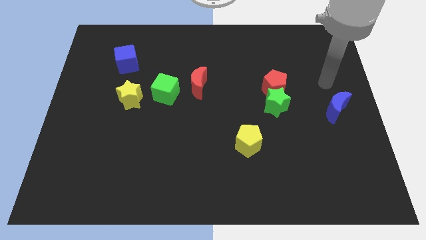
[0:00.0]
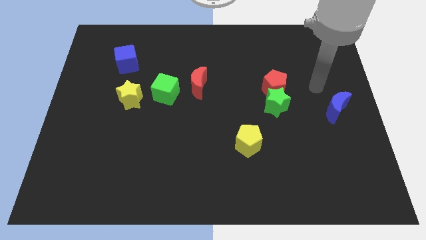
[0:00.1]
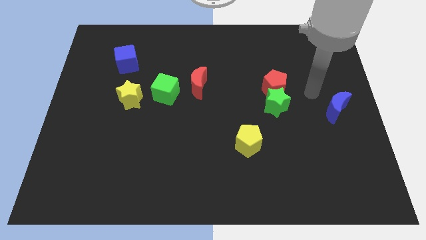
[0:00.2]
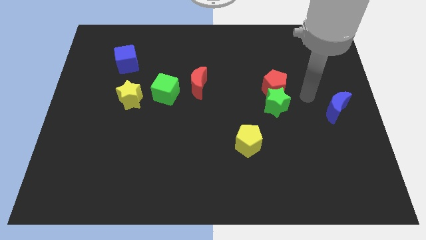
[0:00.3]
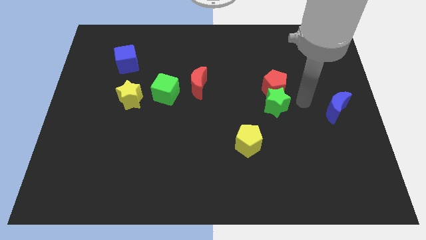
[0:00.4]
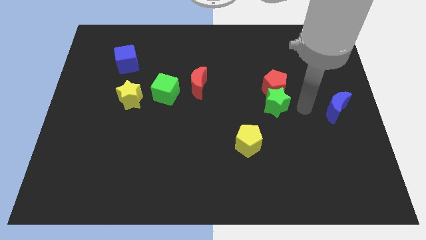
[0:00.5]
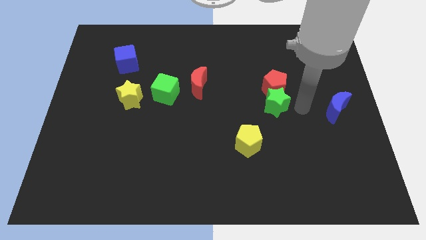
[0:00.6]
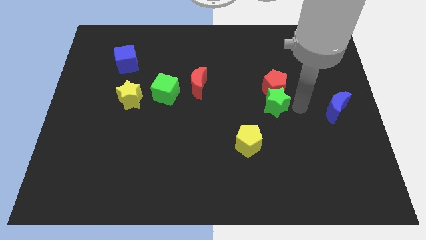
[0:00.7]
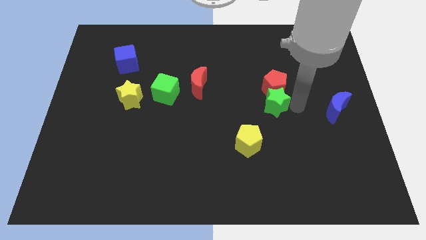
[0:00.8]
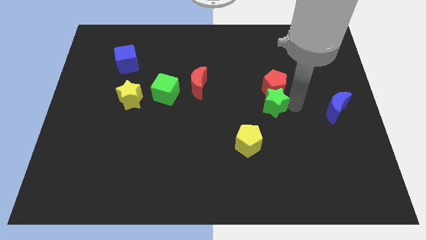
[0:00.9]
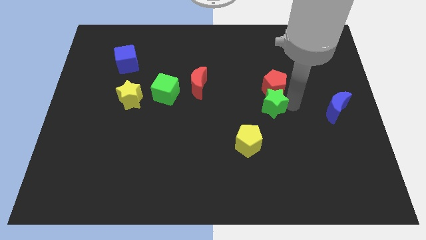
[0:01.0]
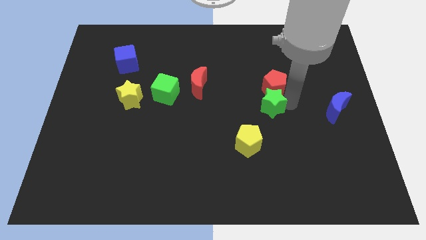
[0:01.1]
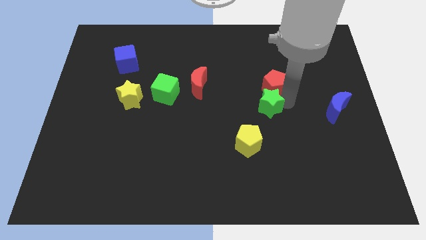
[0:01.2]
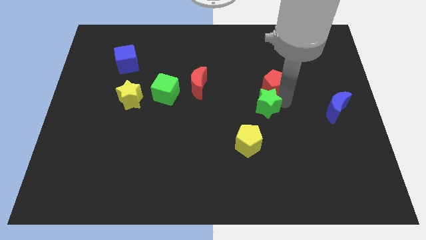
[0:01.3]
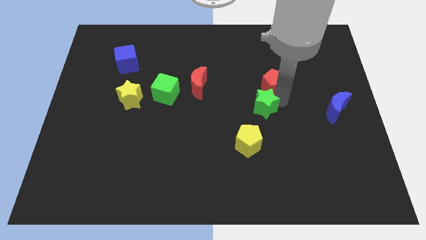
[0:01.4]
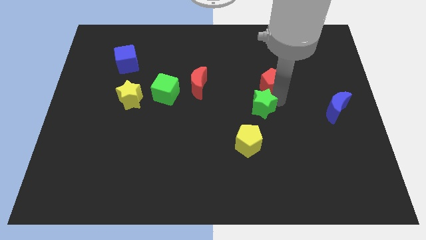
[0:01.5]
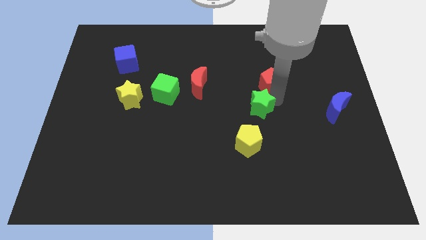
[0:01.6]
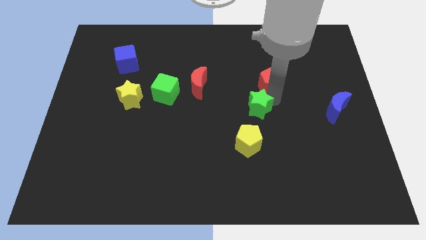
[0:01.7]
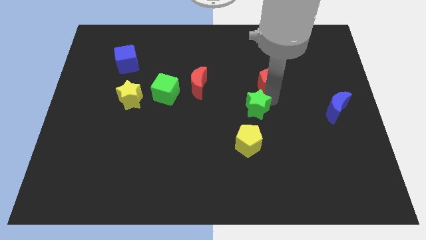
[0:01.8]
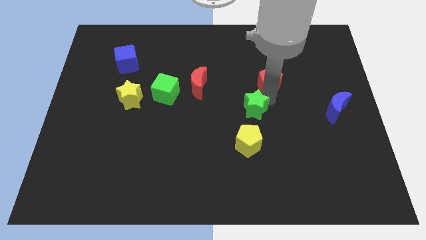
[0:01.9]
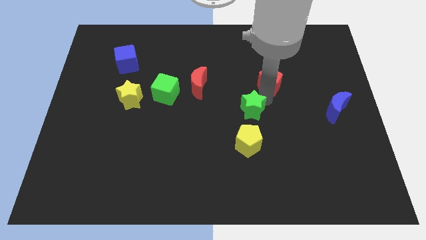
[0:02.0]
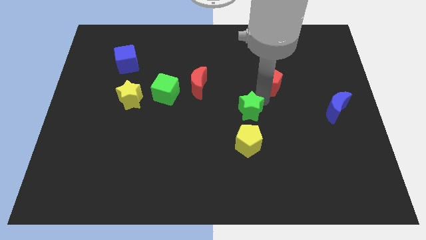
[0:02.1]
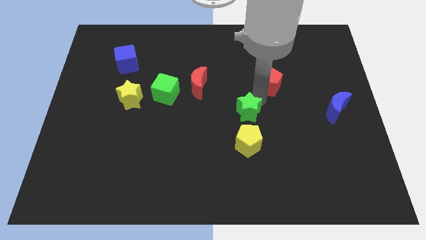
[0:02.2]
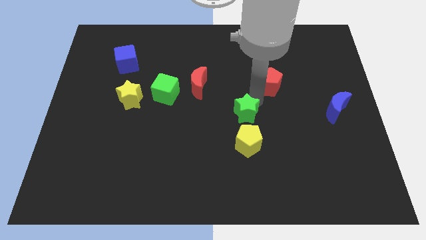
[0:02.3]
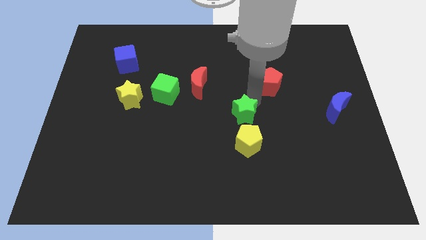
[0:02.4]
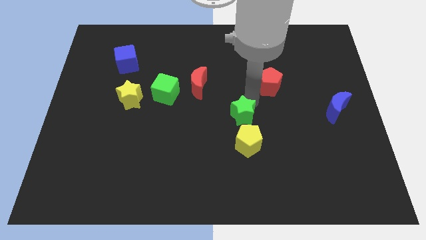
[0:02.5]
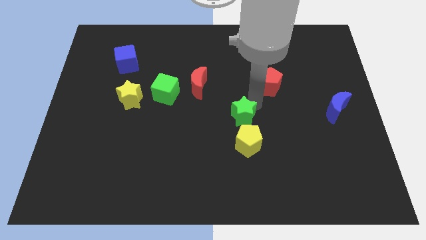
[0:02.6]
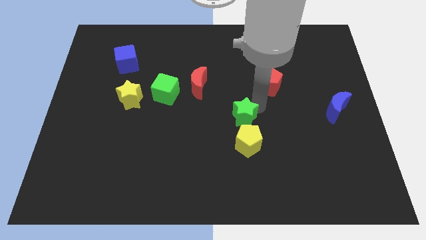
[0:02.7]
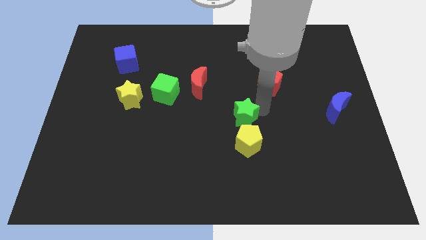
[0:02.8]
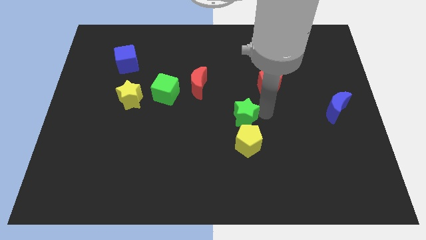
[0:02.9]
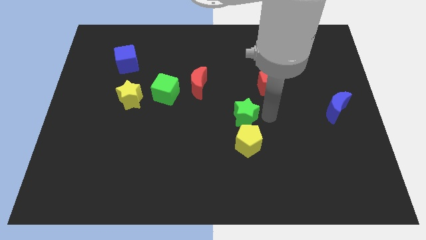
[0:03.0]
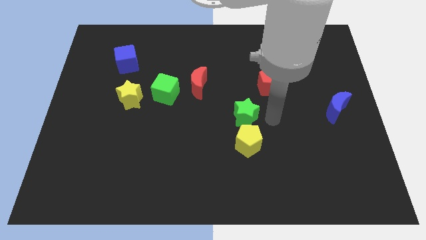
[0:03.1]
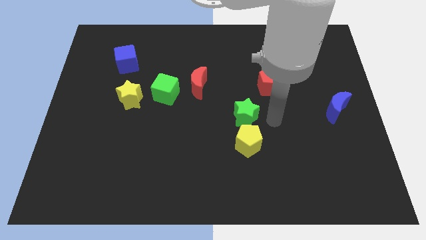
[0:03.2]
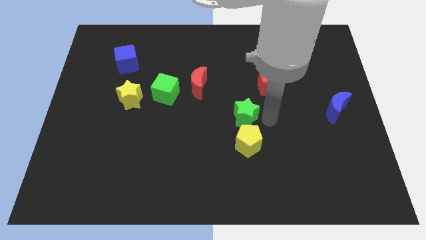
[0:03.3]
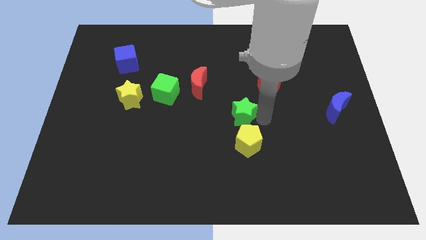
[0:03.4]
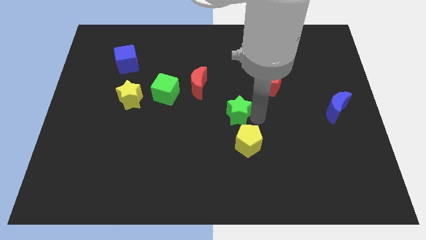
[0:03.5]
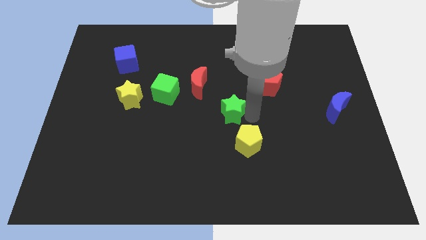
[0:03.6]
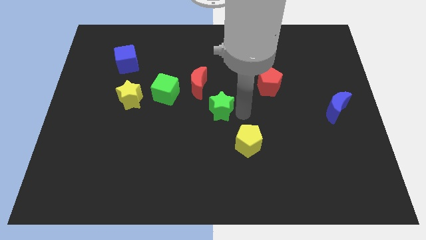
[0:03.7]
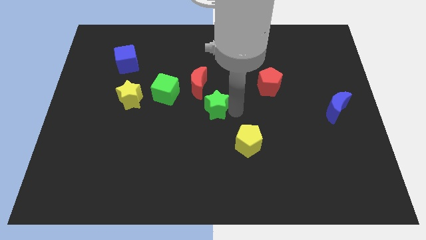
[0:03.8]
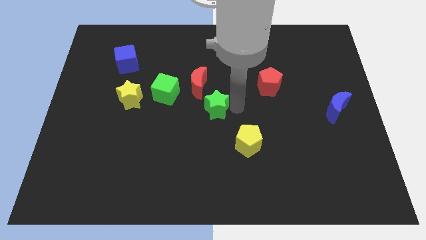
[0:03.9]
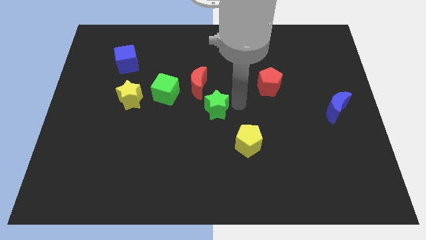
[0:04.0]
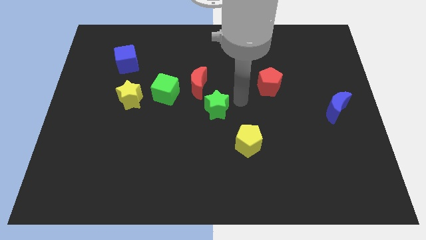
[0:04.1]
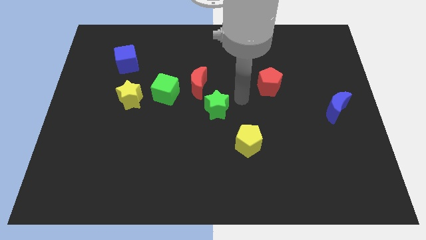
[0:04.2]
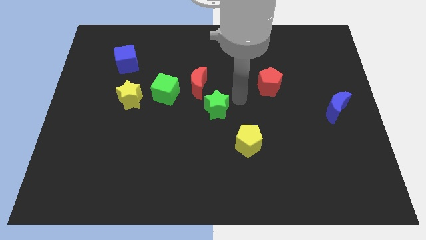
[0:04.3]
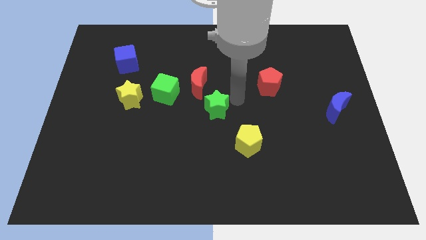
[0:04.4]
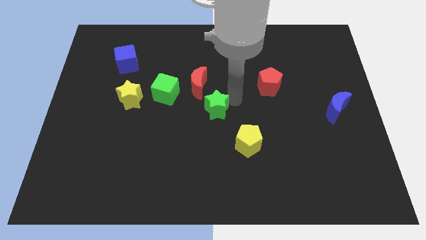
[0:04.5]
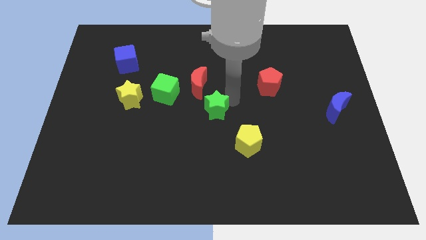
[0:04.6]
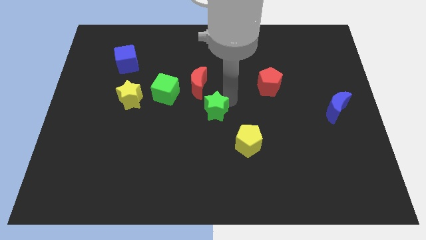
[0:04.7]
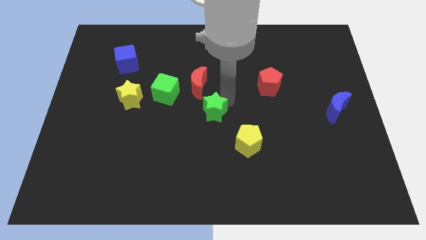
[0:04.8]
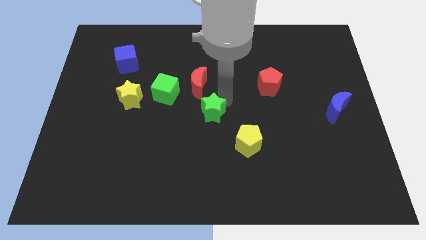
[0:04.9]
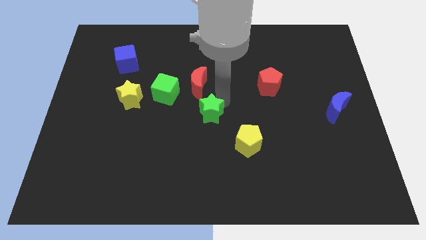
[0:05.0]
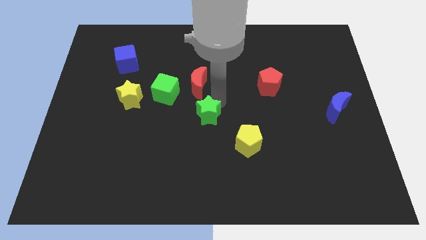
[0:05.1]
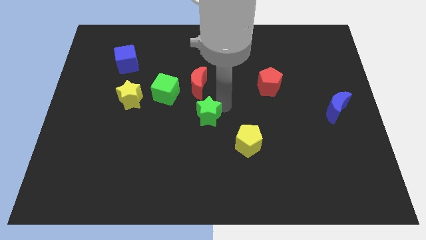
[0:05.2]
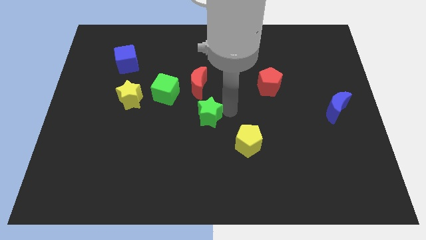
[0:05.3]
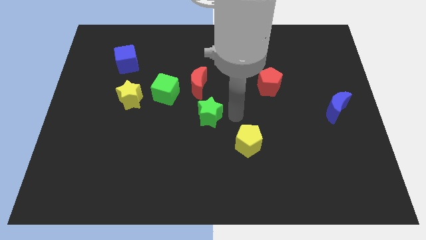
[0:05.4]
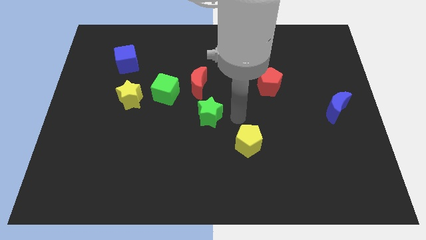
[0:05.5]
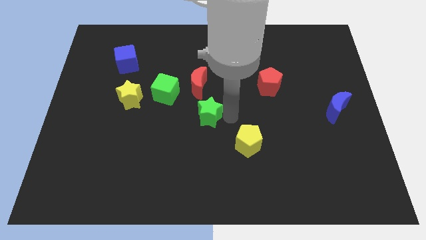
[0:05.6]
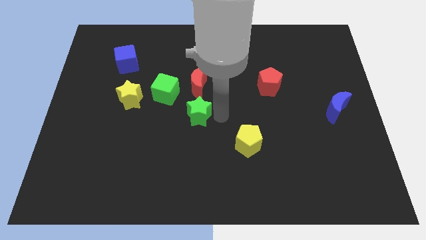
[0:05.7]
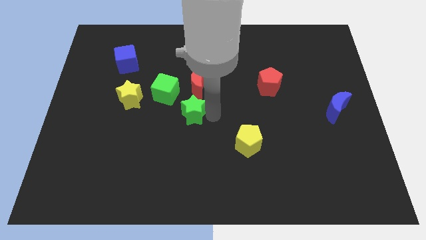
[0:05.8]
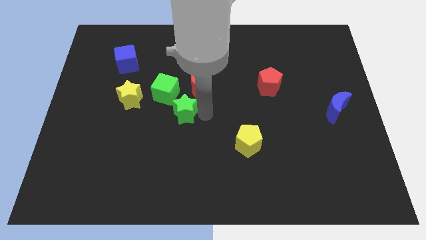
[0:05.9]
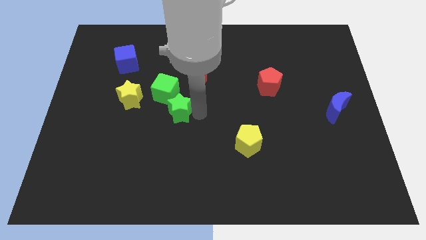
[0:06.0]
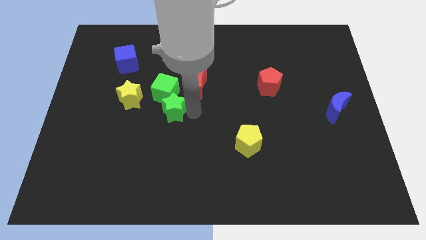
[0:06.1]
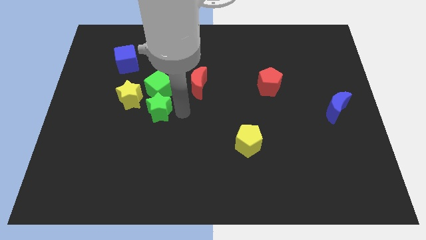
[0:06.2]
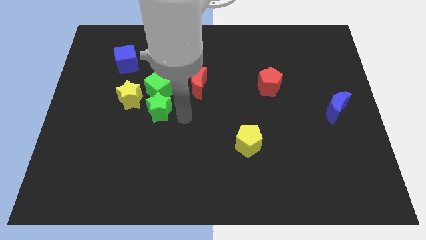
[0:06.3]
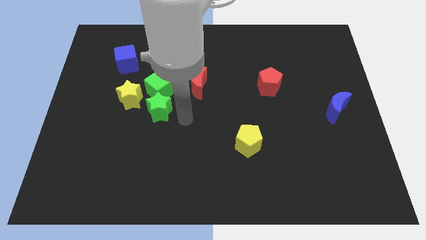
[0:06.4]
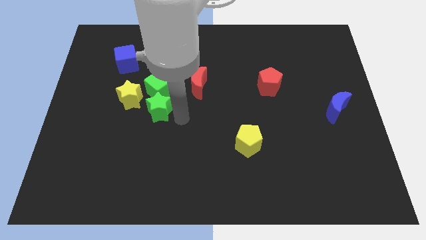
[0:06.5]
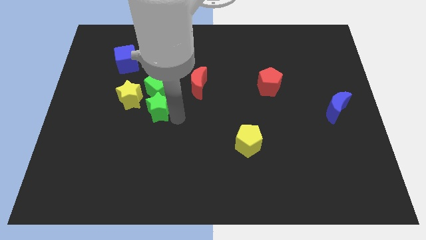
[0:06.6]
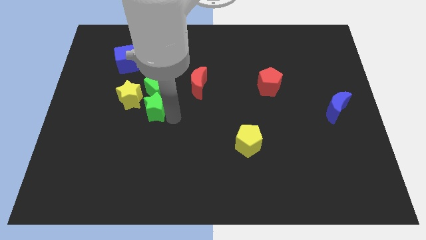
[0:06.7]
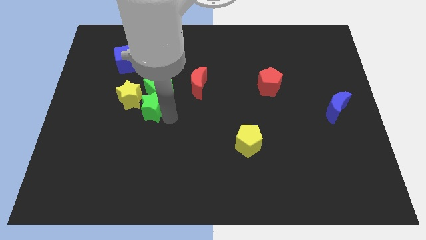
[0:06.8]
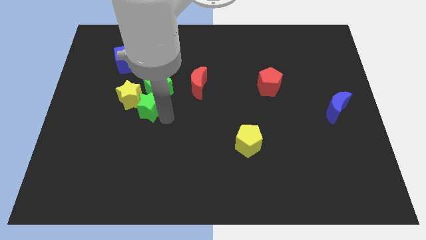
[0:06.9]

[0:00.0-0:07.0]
push the green star next to the yellow star
